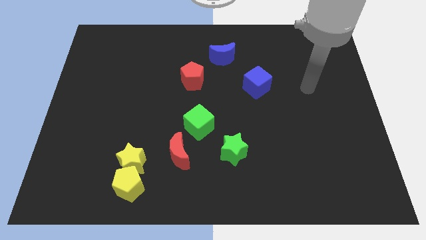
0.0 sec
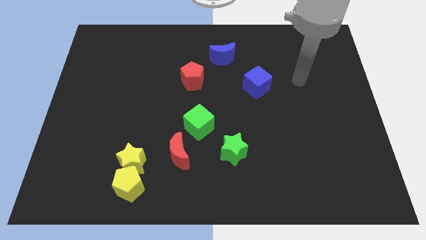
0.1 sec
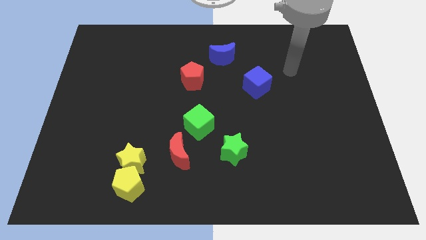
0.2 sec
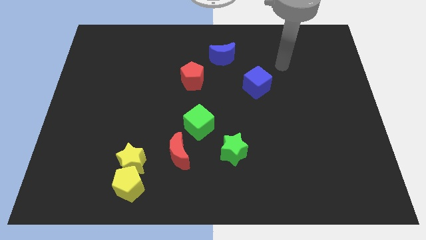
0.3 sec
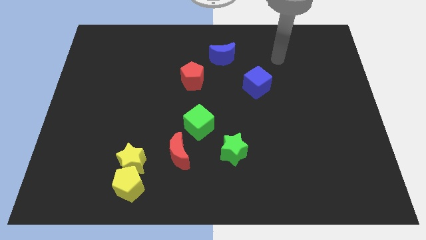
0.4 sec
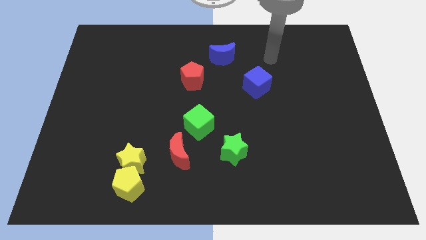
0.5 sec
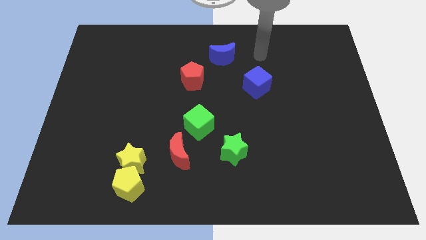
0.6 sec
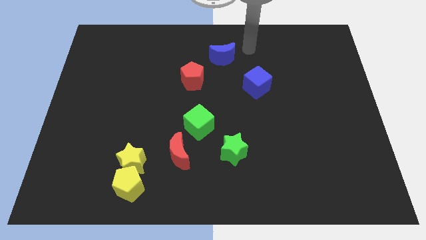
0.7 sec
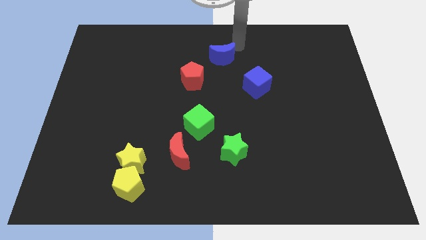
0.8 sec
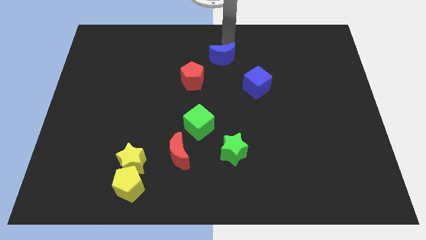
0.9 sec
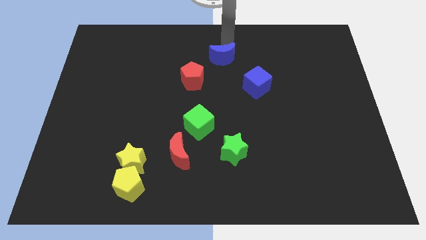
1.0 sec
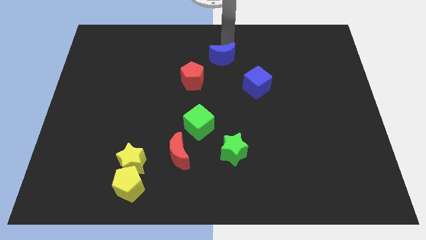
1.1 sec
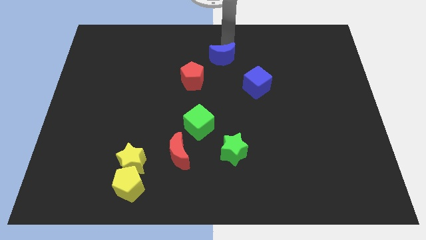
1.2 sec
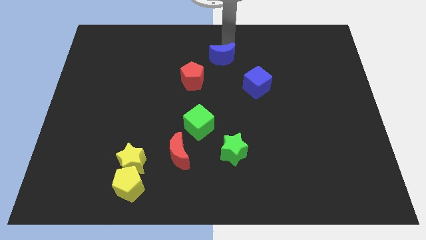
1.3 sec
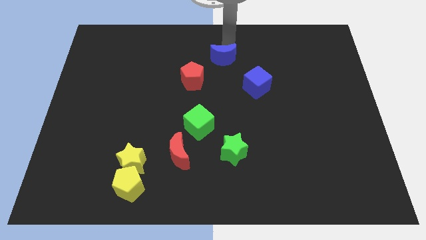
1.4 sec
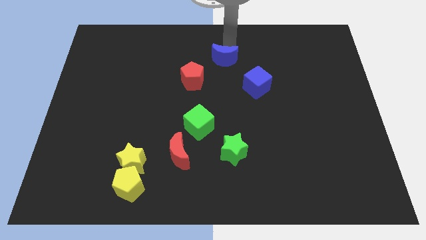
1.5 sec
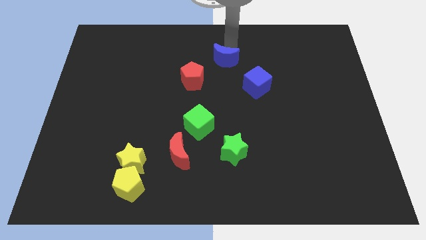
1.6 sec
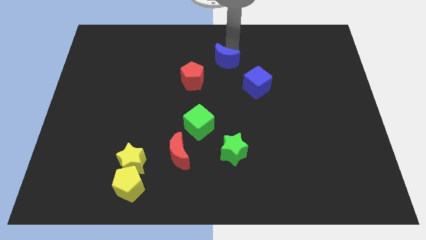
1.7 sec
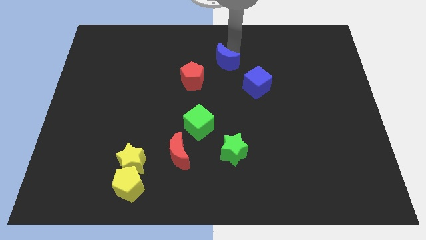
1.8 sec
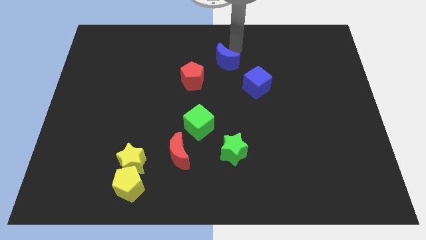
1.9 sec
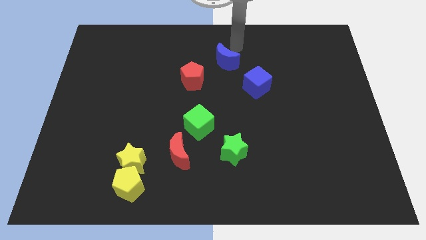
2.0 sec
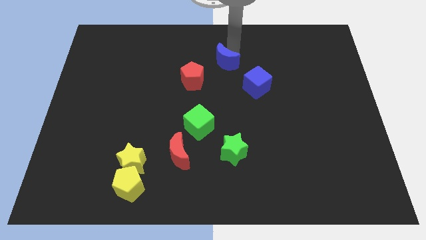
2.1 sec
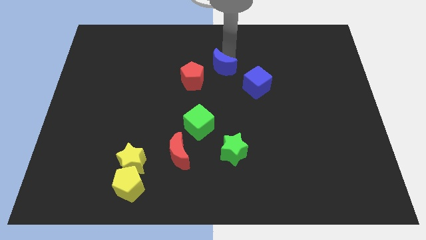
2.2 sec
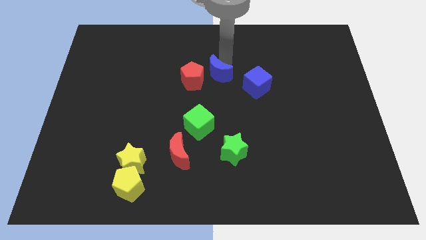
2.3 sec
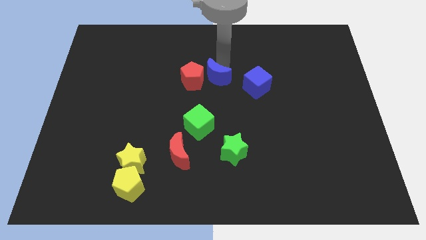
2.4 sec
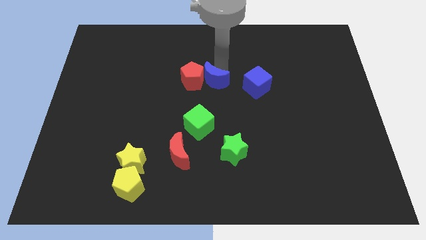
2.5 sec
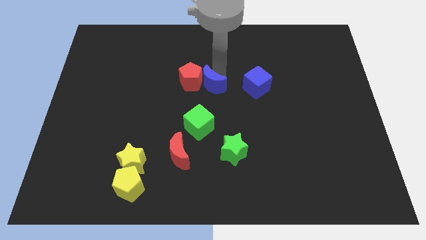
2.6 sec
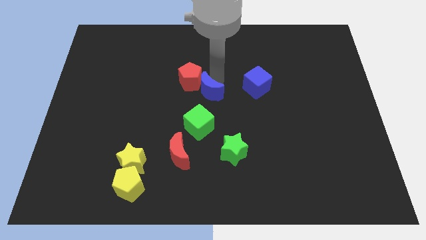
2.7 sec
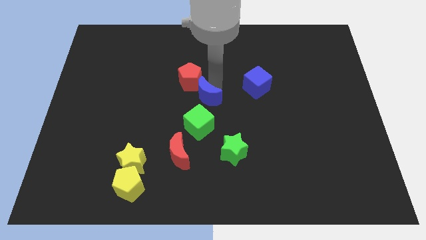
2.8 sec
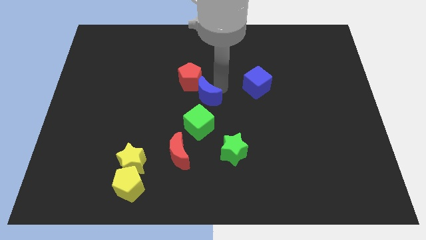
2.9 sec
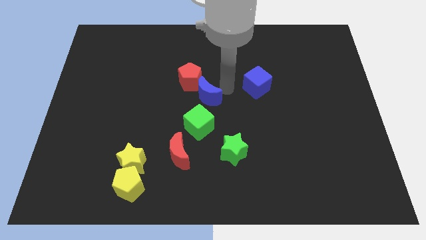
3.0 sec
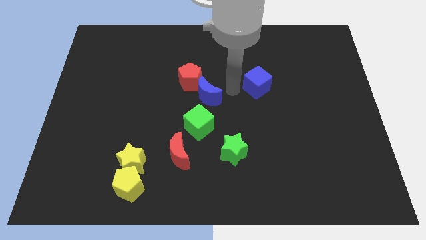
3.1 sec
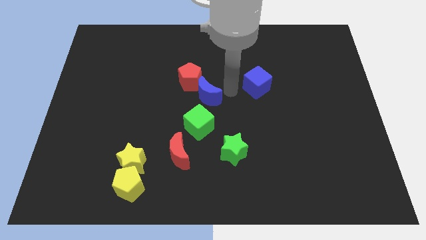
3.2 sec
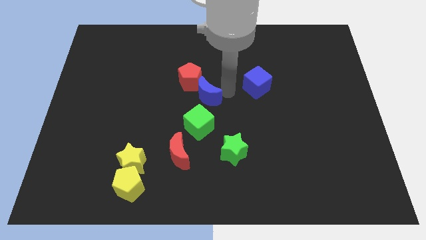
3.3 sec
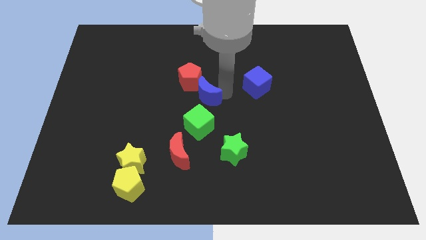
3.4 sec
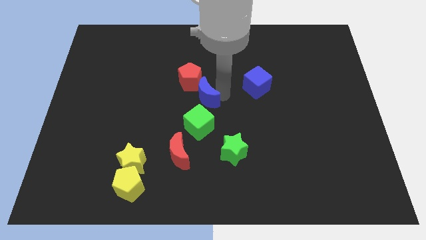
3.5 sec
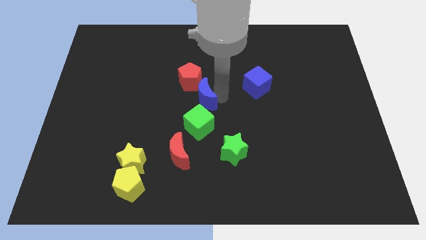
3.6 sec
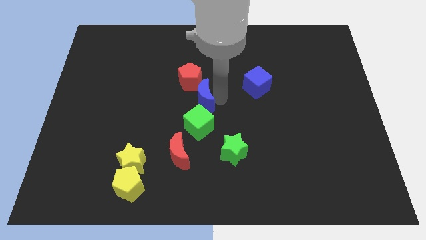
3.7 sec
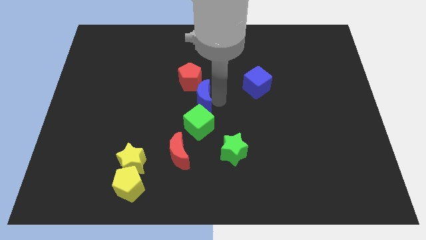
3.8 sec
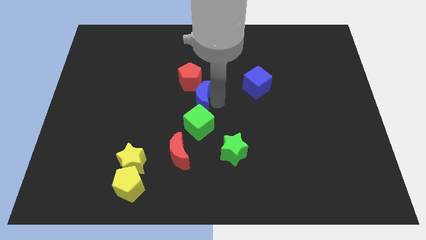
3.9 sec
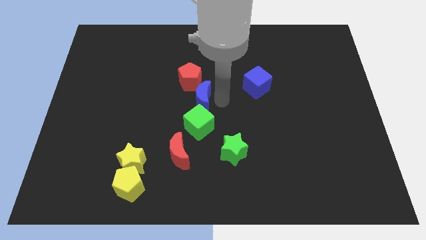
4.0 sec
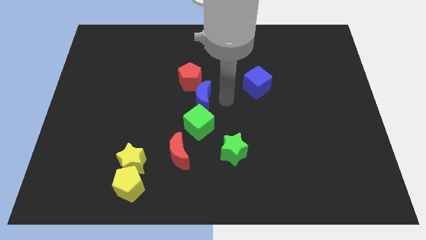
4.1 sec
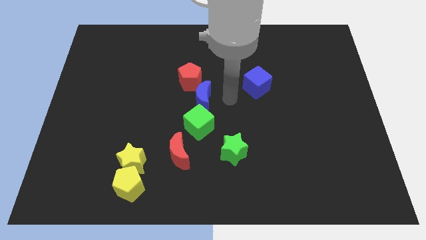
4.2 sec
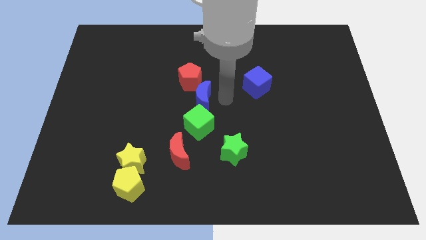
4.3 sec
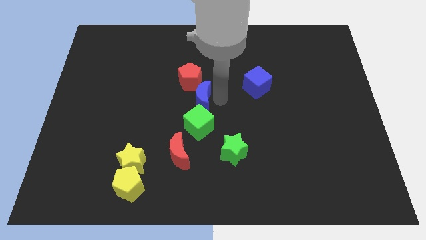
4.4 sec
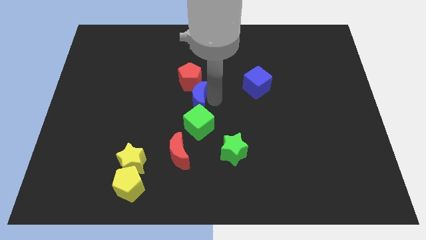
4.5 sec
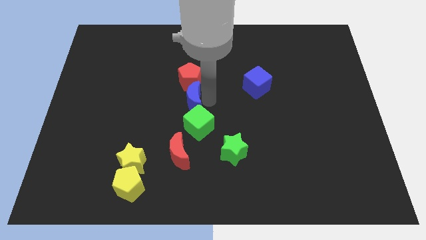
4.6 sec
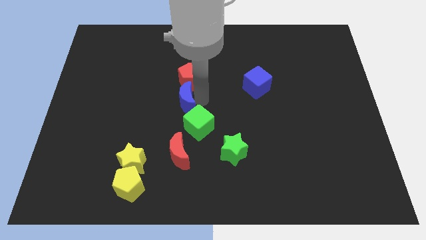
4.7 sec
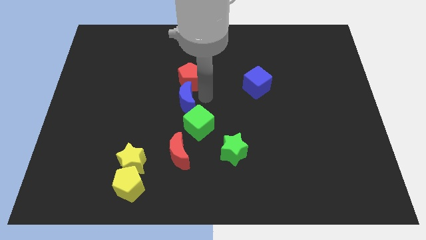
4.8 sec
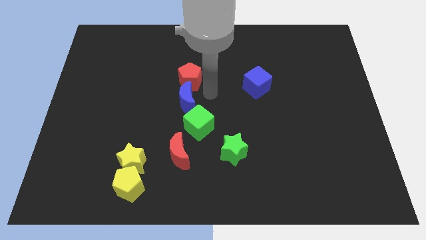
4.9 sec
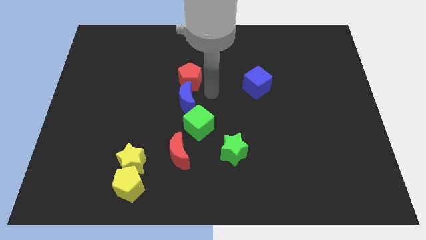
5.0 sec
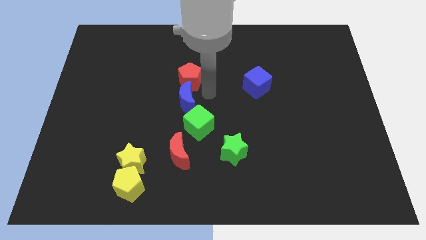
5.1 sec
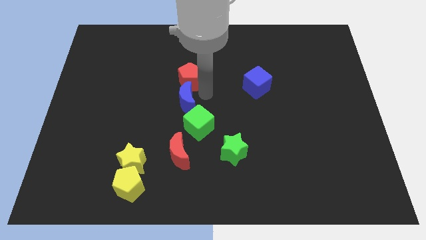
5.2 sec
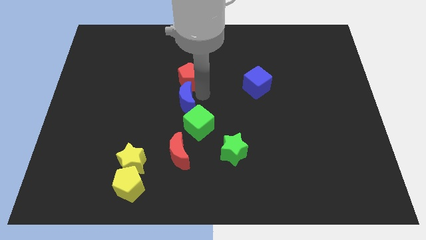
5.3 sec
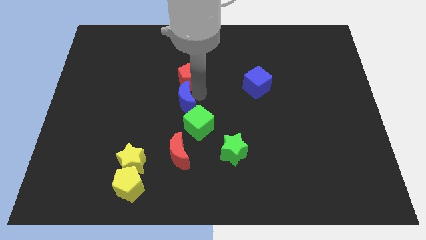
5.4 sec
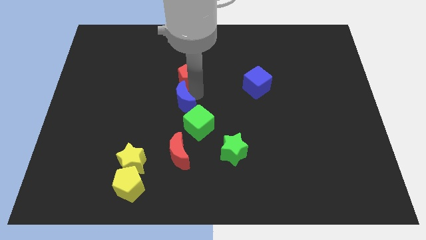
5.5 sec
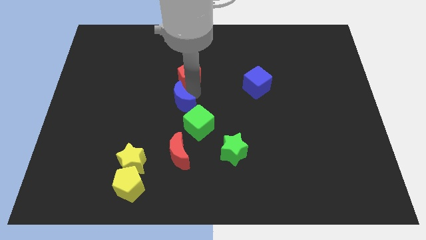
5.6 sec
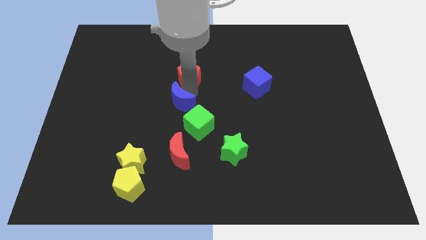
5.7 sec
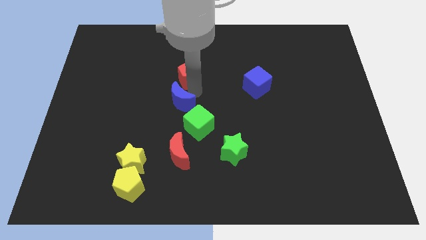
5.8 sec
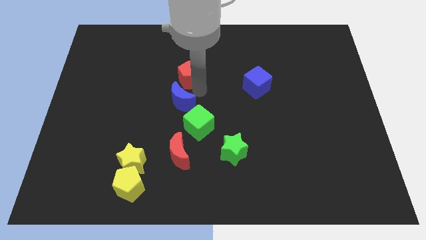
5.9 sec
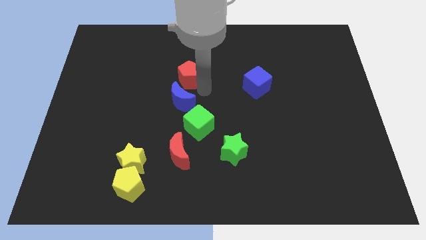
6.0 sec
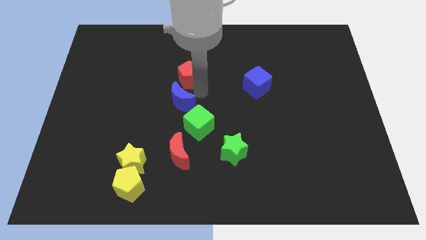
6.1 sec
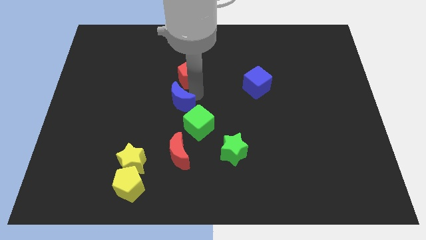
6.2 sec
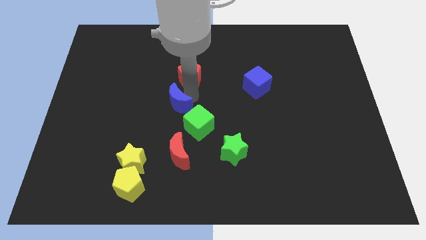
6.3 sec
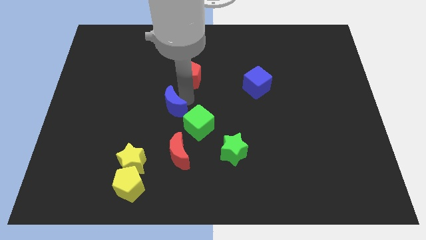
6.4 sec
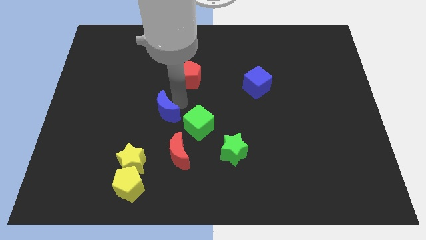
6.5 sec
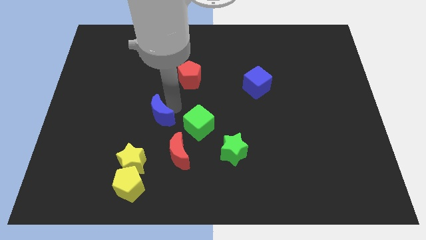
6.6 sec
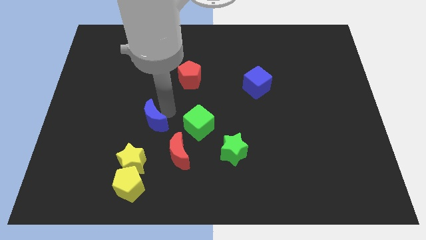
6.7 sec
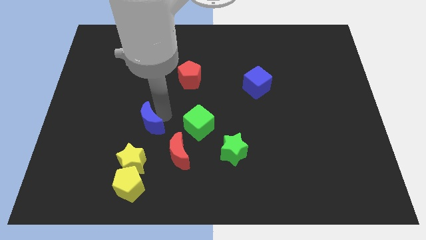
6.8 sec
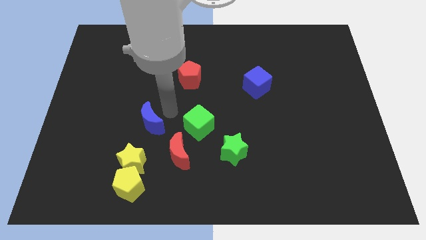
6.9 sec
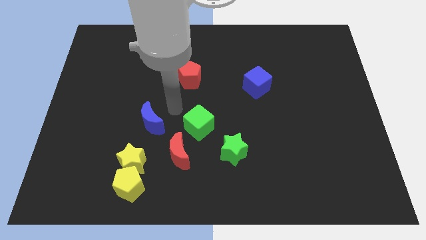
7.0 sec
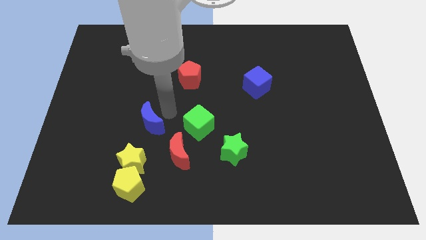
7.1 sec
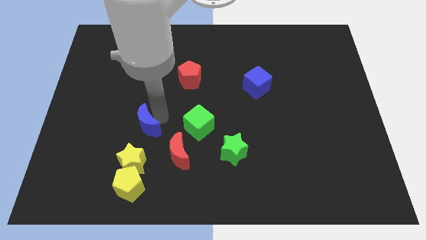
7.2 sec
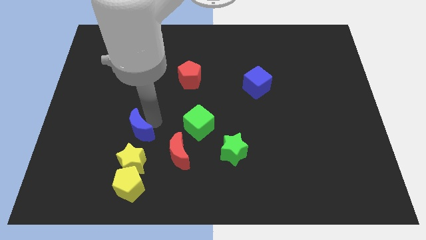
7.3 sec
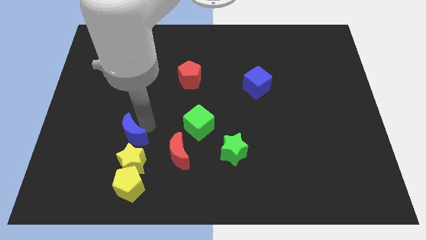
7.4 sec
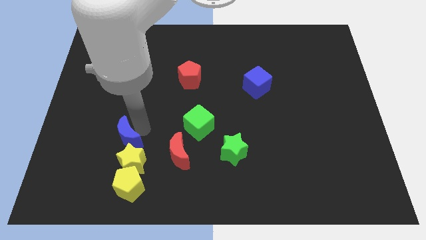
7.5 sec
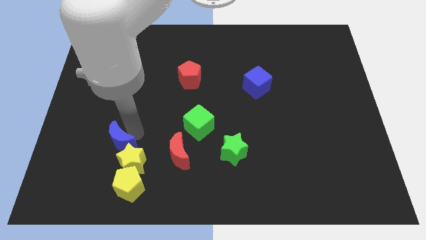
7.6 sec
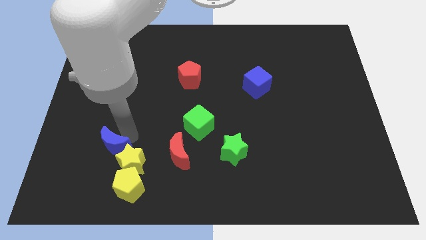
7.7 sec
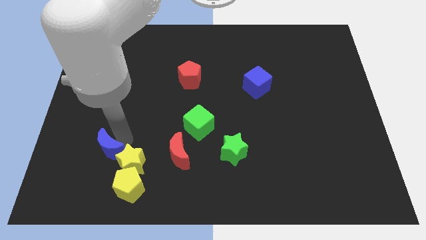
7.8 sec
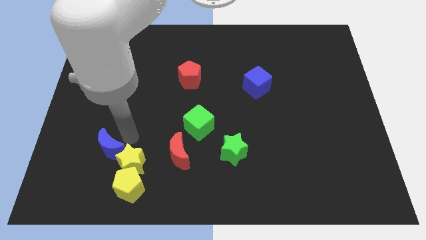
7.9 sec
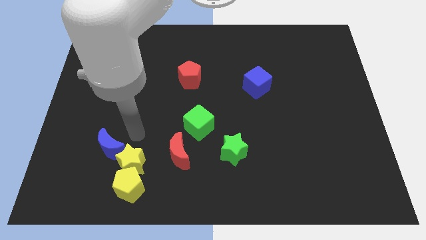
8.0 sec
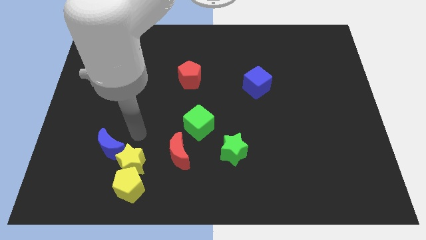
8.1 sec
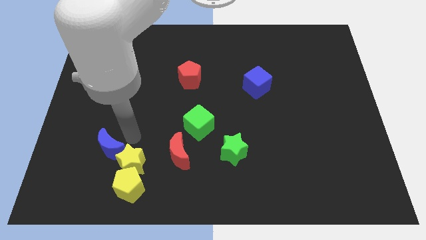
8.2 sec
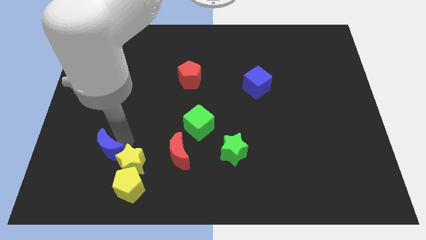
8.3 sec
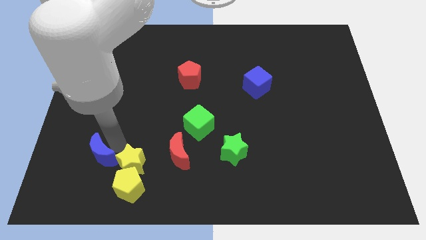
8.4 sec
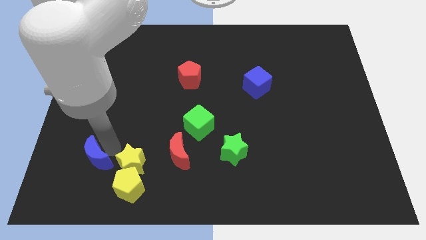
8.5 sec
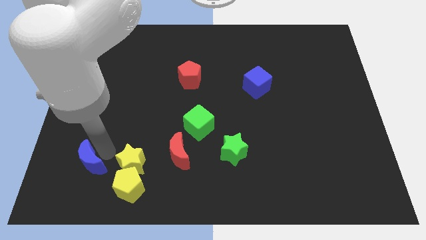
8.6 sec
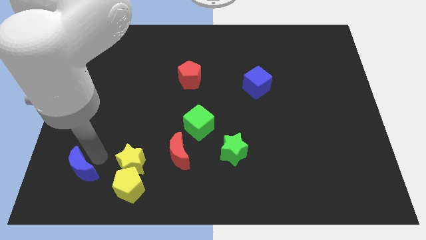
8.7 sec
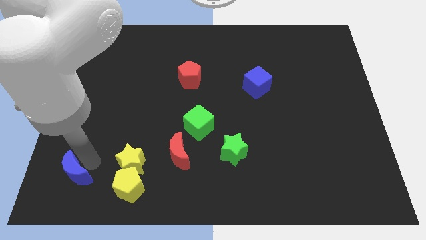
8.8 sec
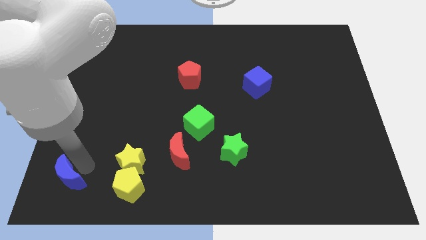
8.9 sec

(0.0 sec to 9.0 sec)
move the blue moon to the bottom left corner
